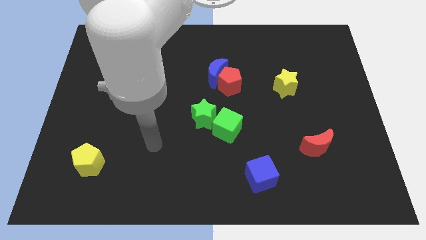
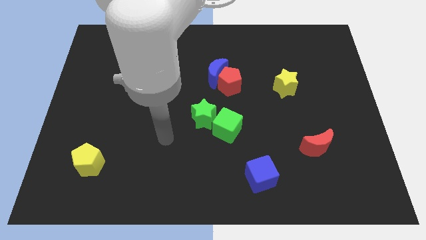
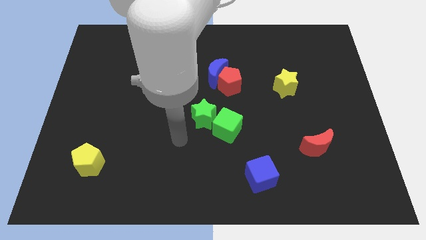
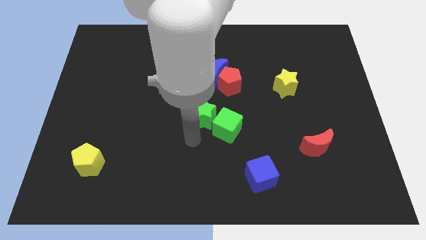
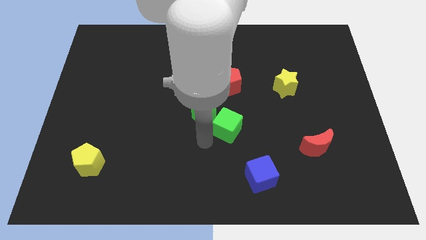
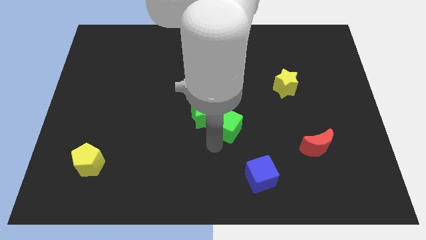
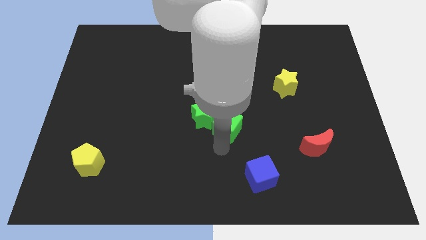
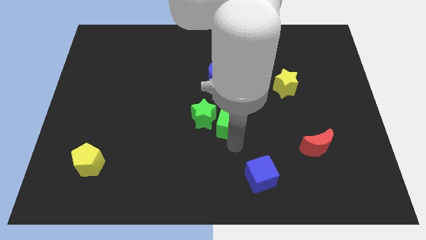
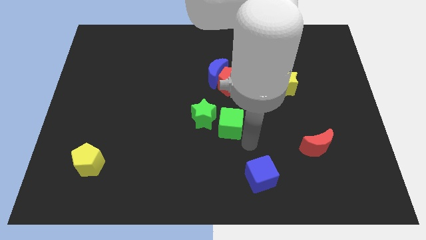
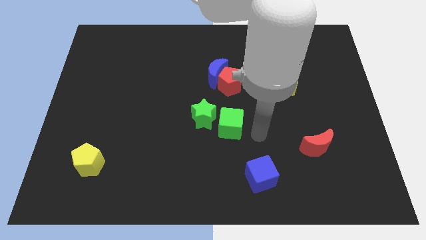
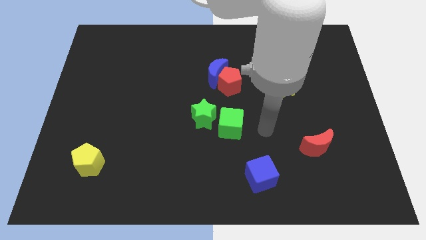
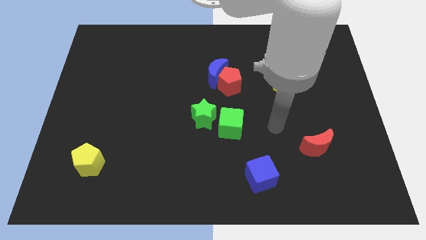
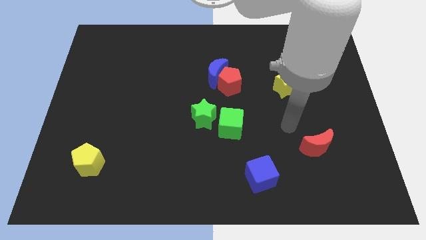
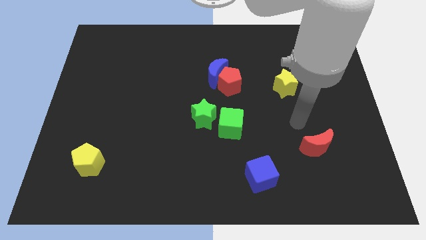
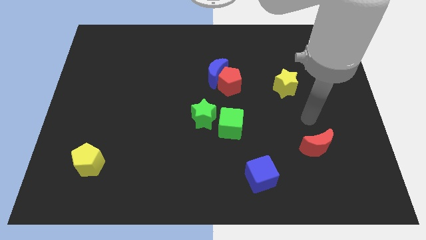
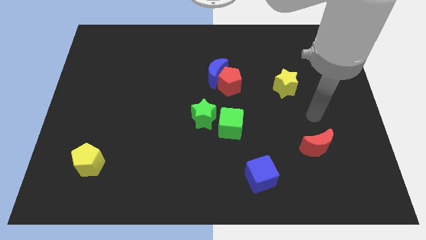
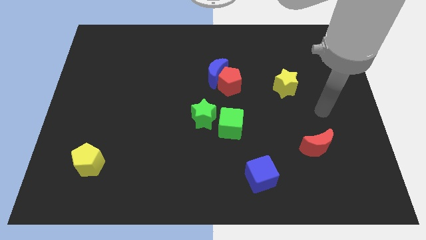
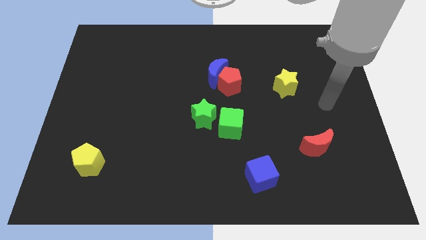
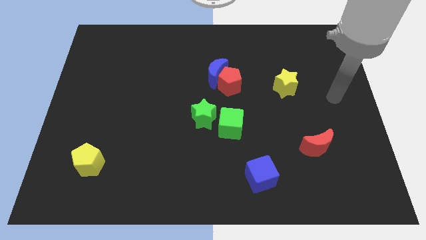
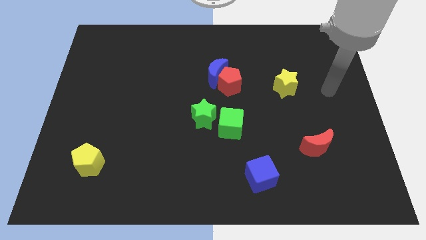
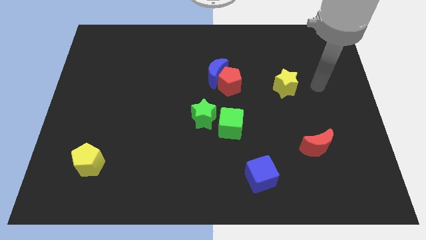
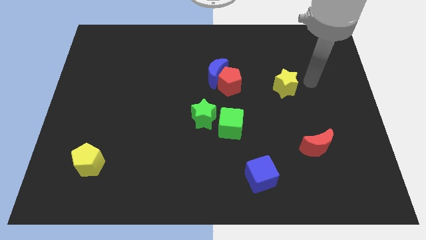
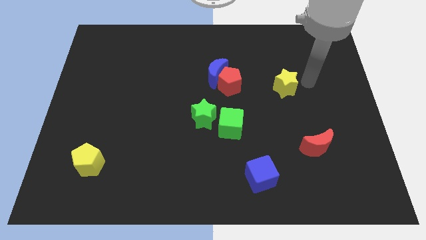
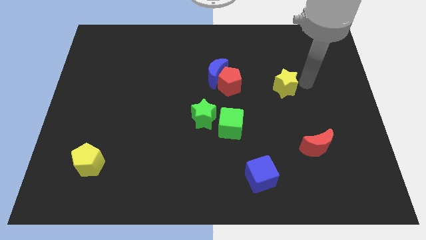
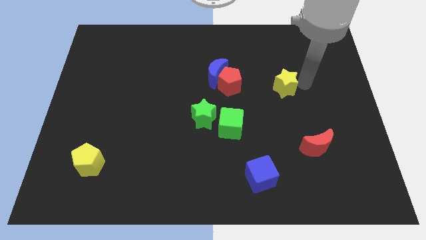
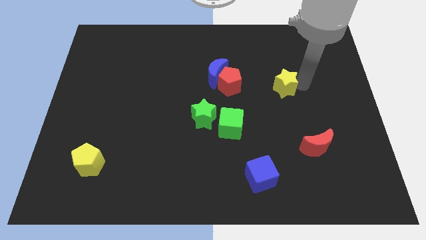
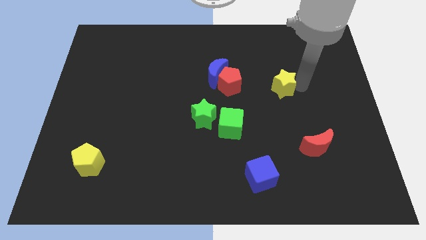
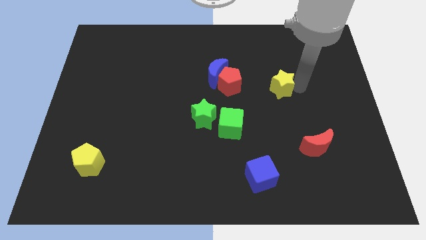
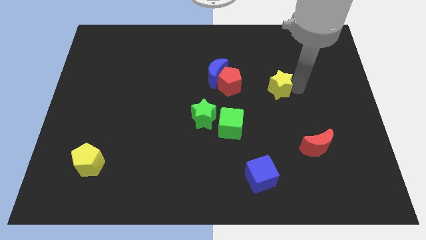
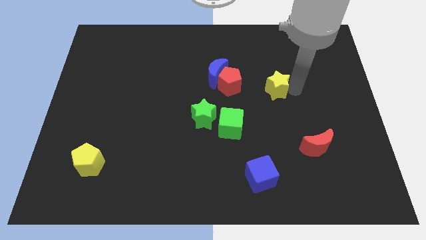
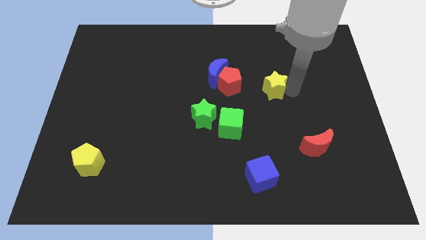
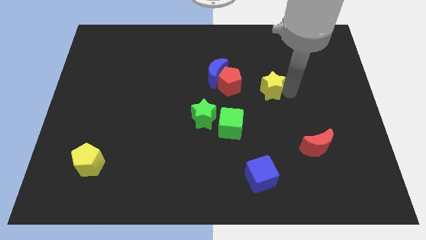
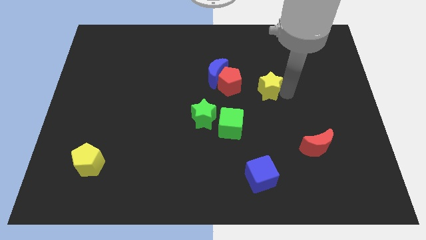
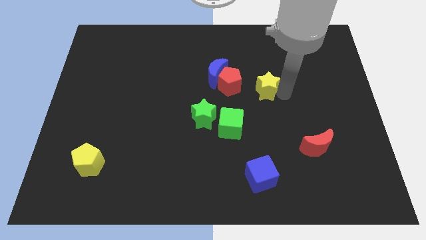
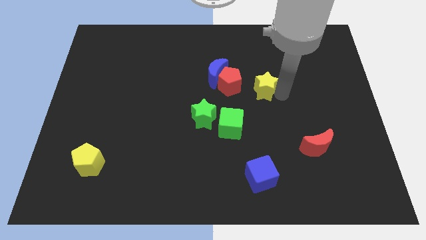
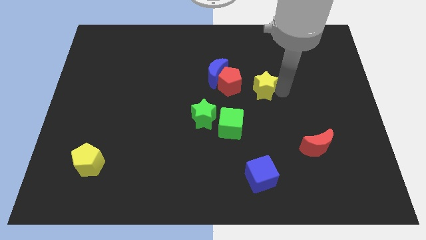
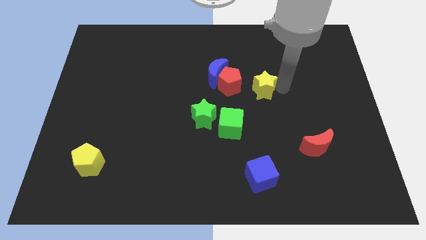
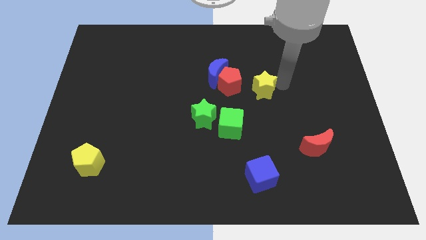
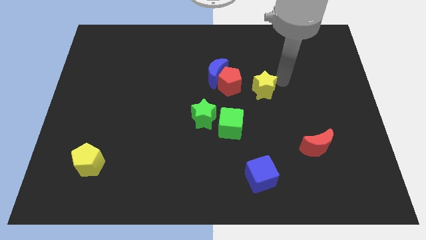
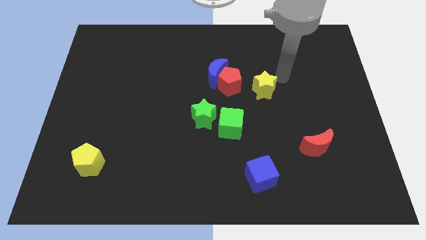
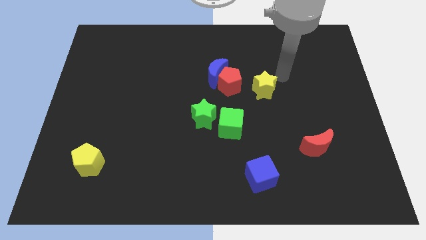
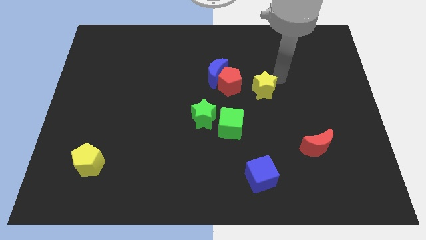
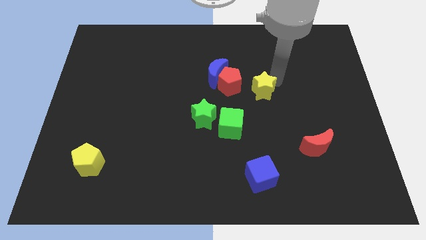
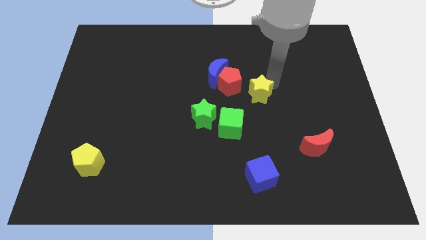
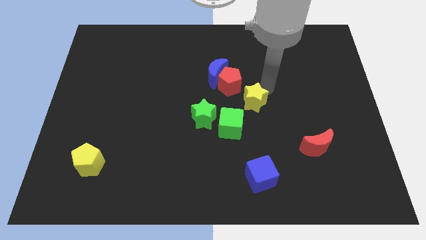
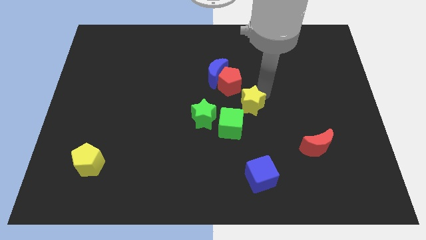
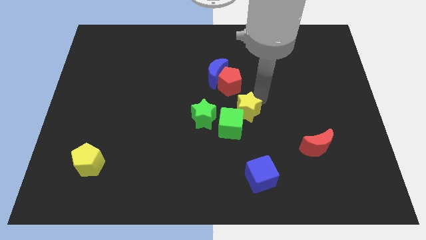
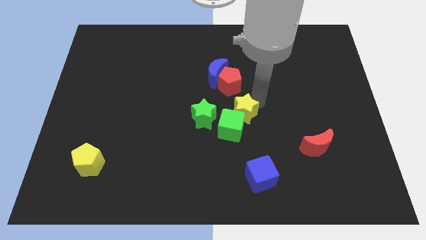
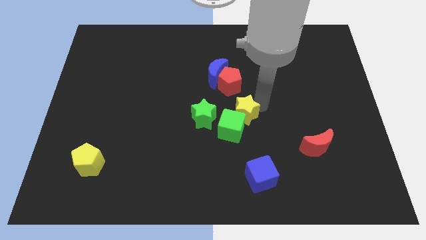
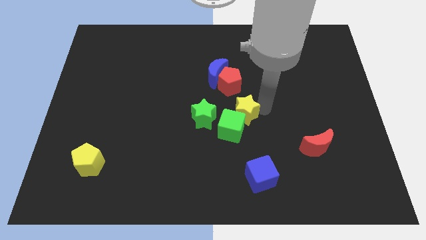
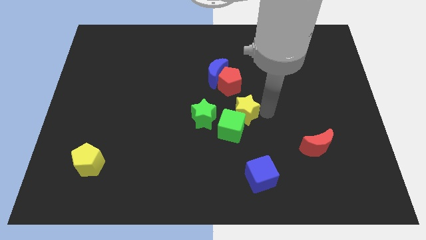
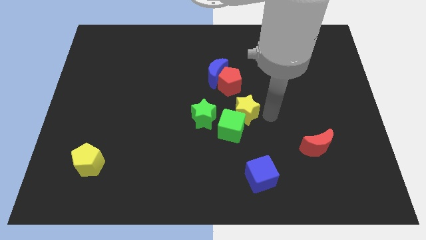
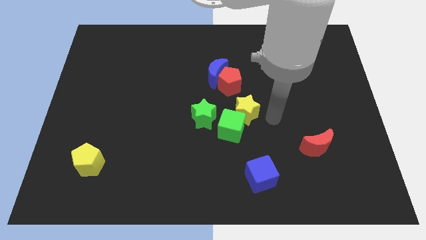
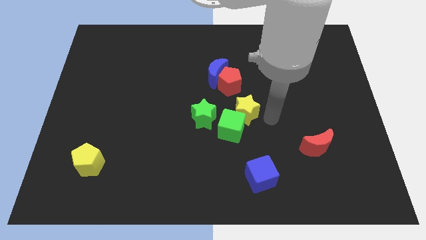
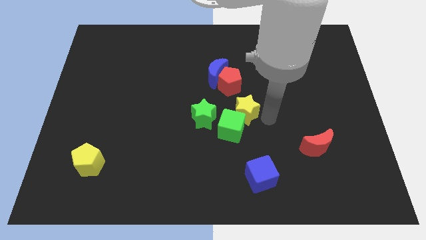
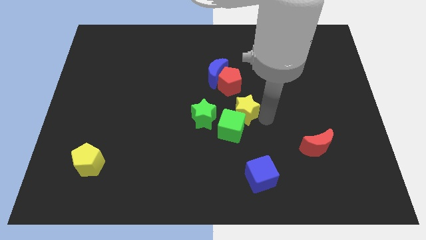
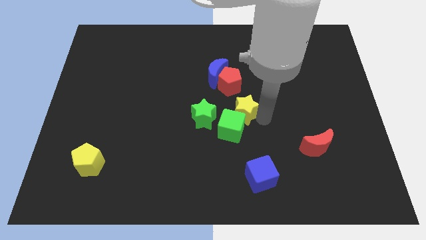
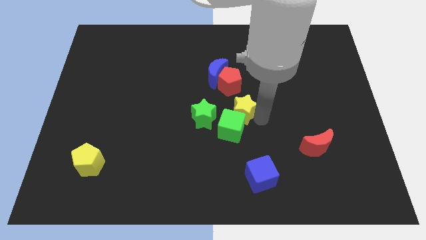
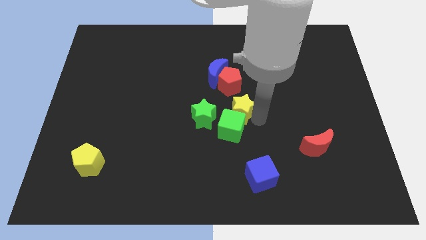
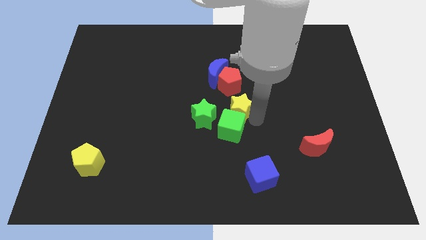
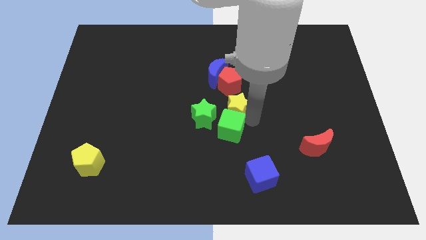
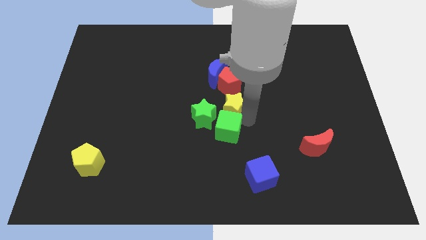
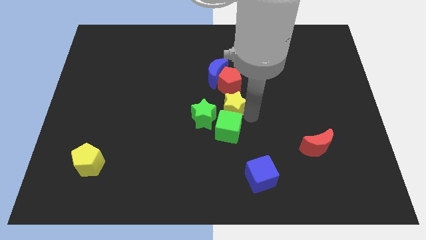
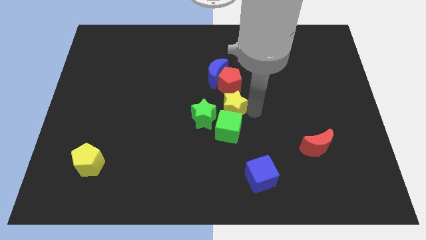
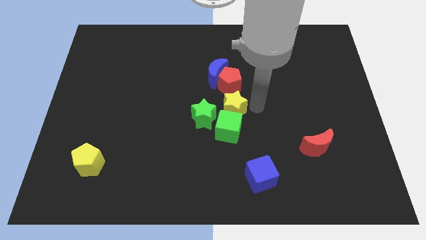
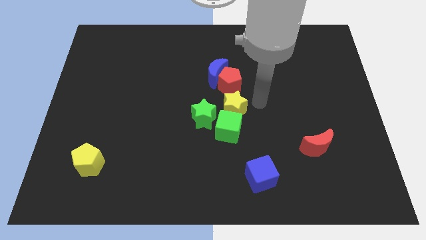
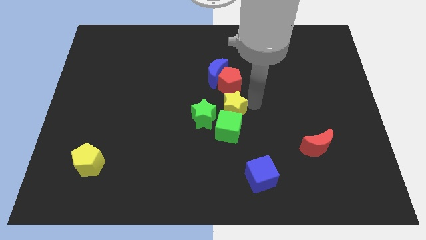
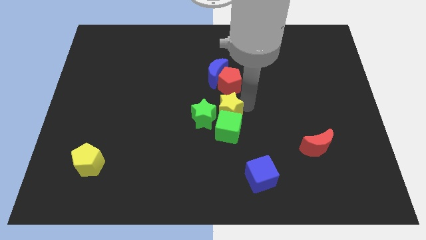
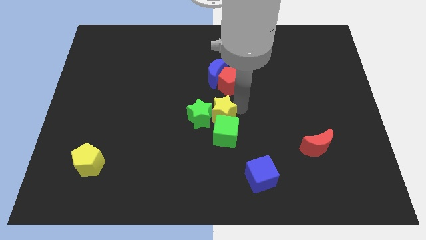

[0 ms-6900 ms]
put the yellow star to the green star

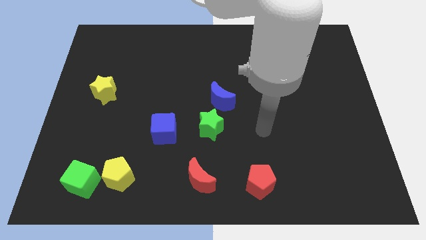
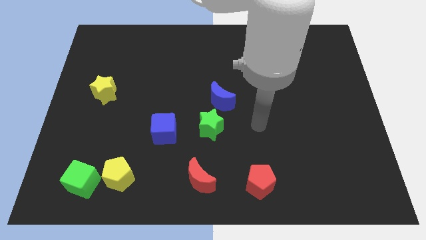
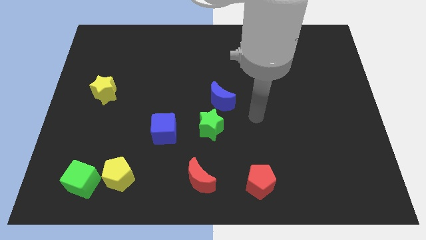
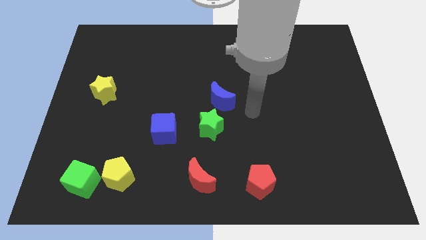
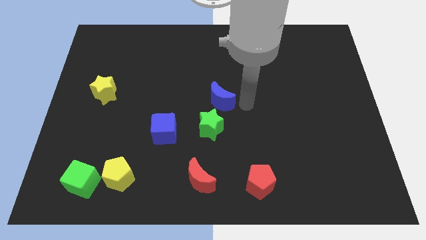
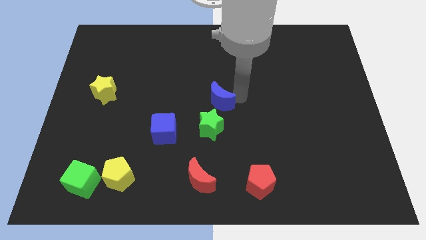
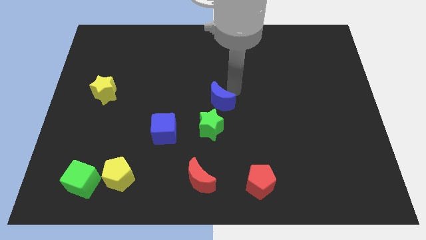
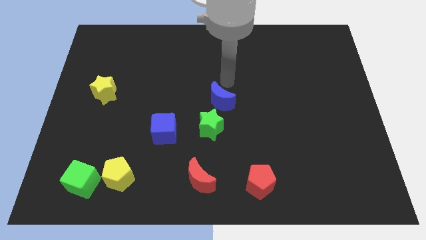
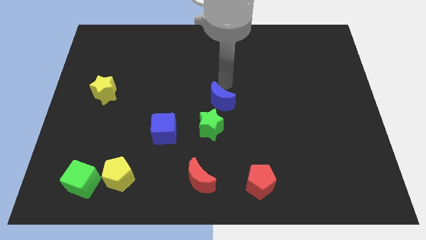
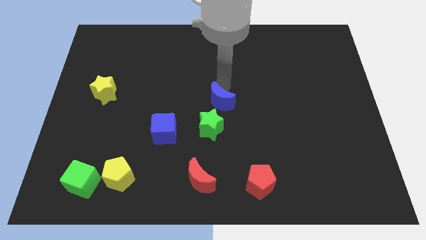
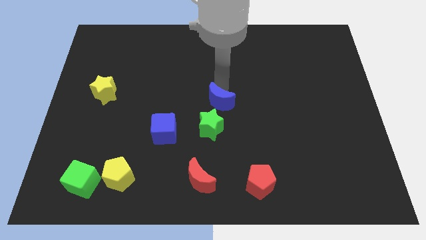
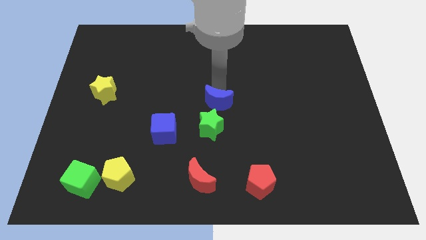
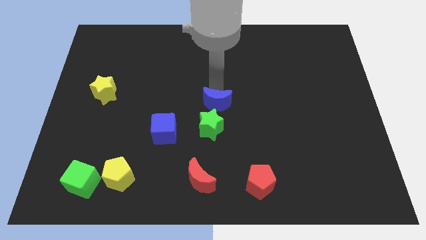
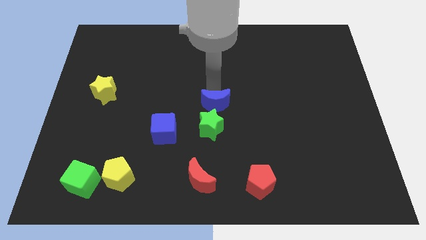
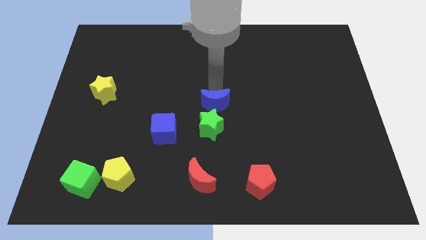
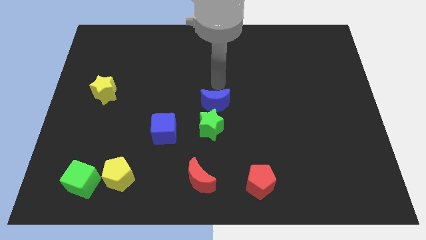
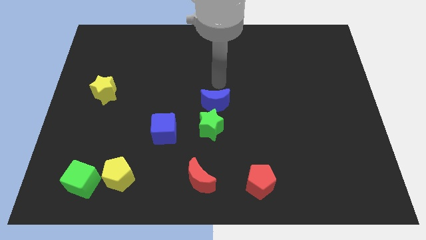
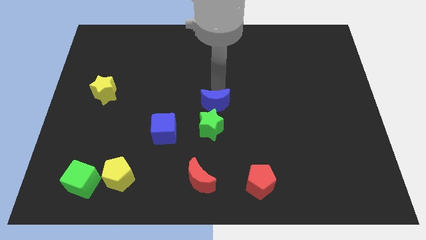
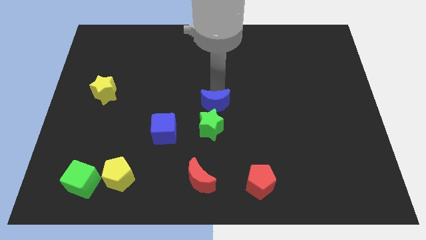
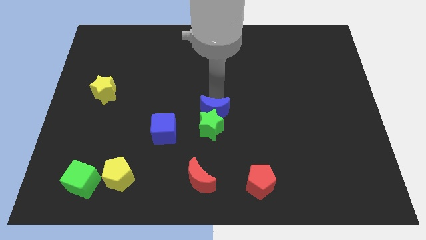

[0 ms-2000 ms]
push the blue moon close to the green star
